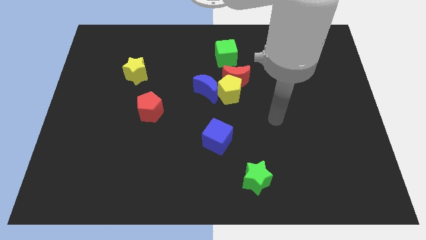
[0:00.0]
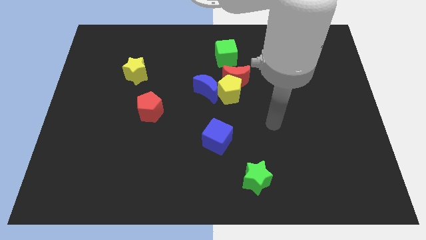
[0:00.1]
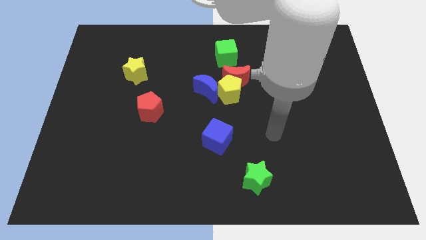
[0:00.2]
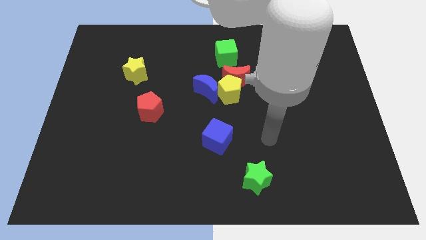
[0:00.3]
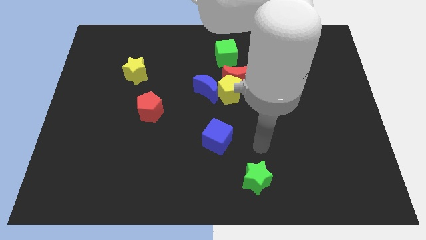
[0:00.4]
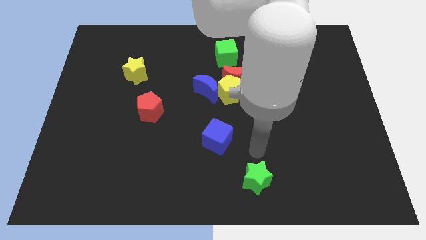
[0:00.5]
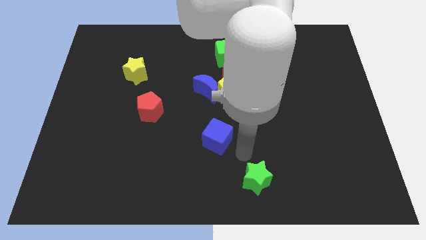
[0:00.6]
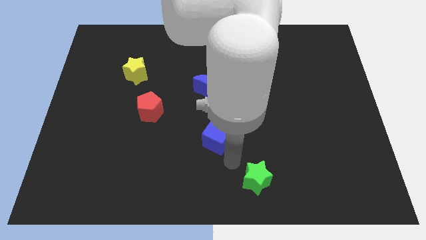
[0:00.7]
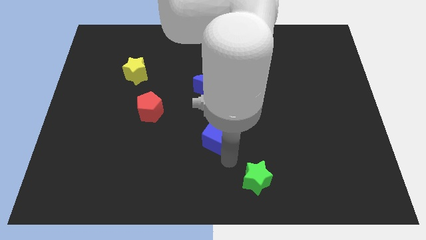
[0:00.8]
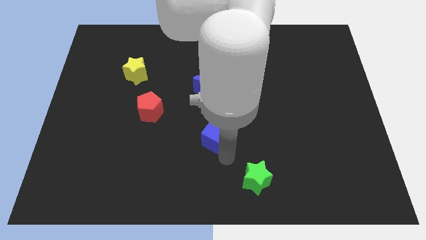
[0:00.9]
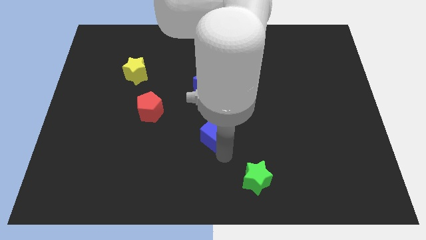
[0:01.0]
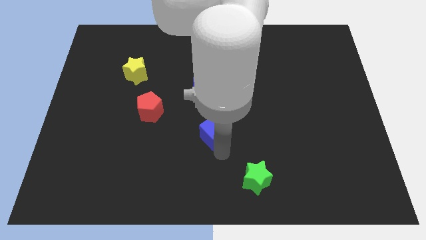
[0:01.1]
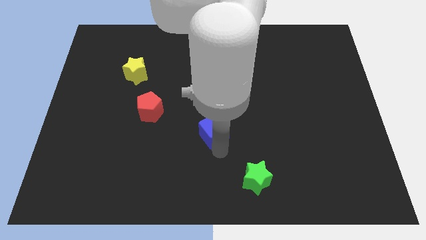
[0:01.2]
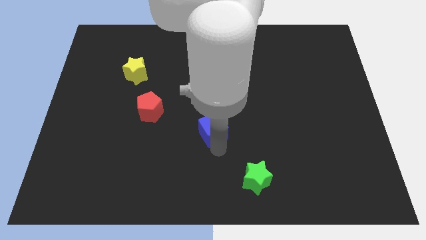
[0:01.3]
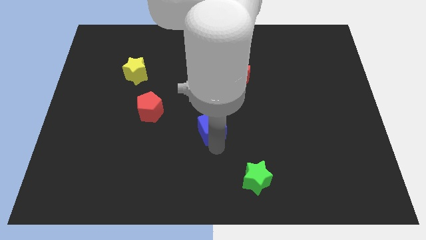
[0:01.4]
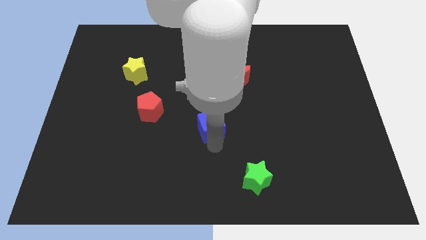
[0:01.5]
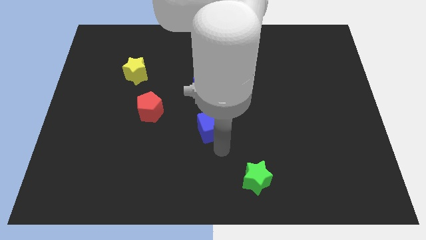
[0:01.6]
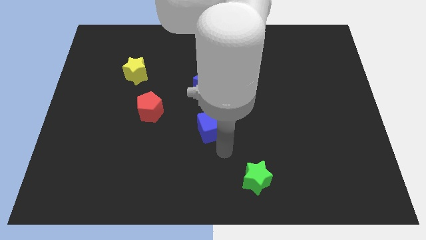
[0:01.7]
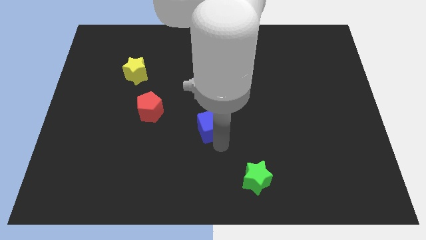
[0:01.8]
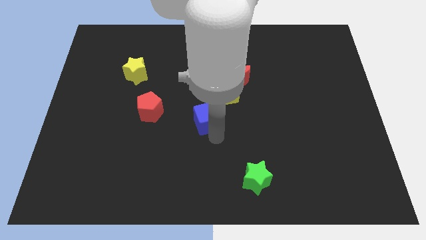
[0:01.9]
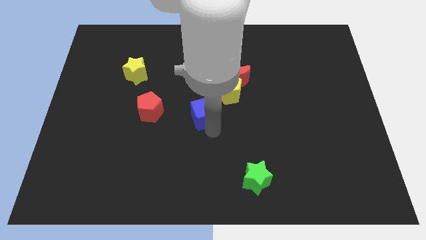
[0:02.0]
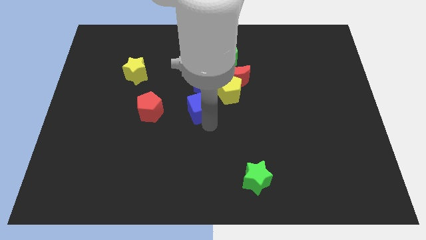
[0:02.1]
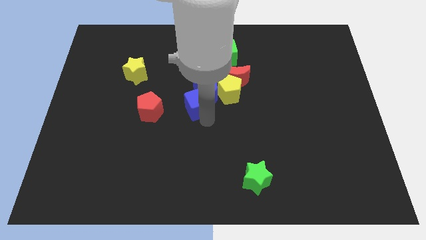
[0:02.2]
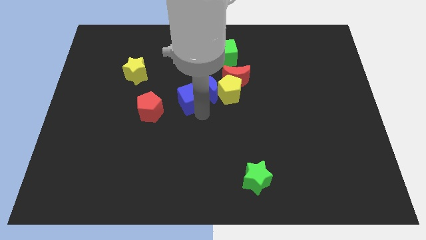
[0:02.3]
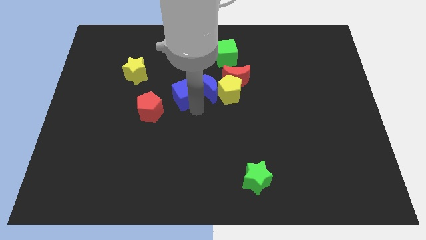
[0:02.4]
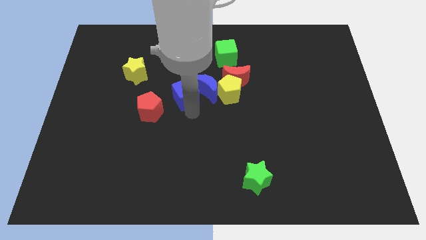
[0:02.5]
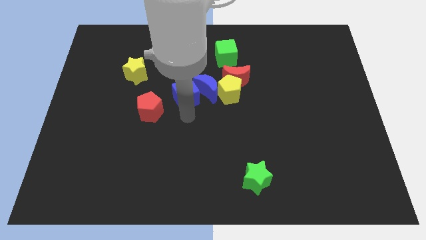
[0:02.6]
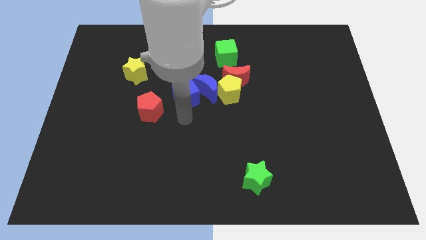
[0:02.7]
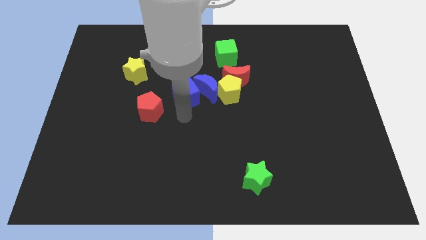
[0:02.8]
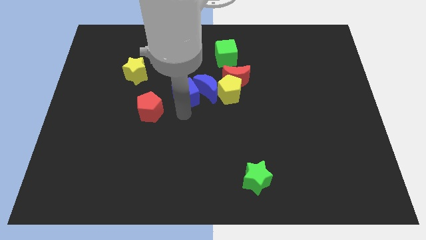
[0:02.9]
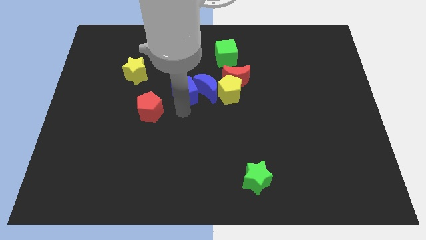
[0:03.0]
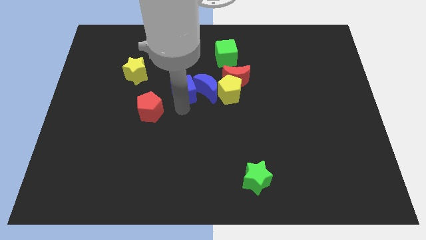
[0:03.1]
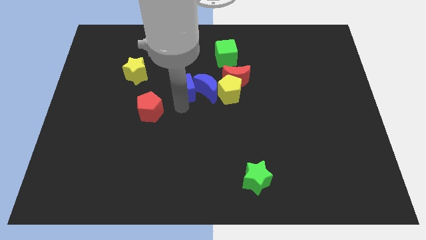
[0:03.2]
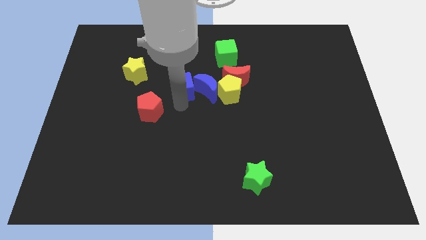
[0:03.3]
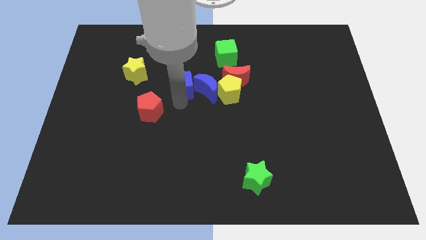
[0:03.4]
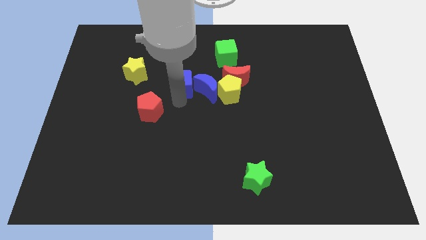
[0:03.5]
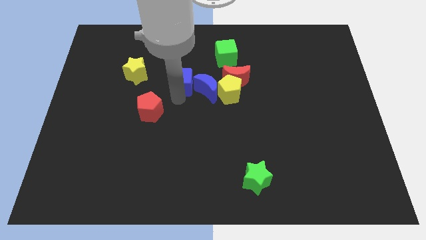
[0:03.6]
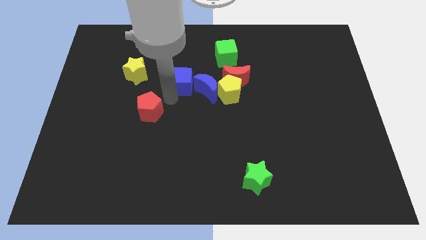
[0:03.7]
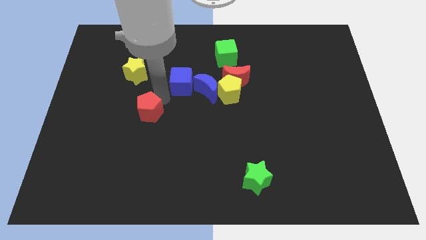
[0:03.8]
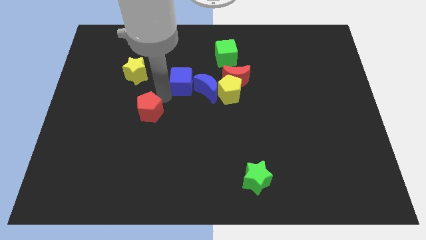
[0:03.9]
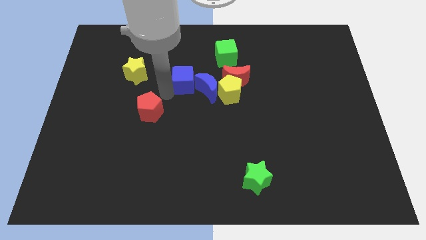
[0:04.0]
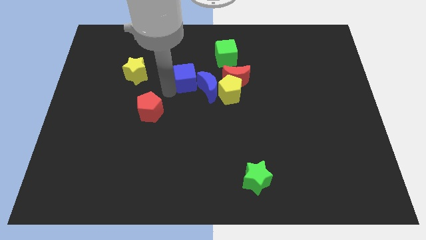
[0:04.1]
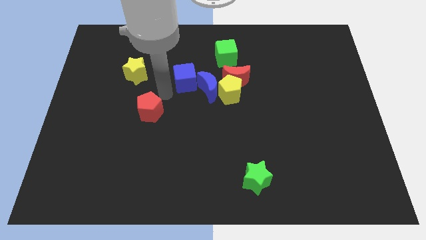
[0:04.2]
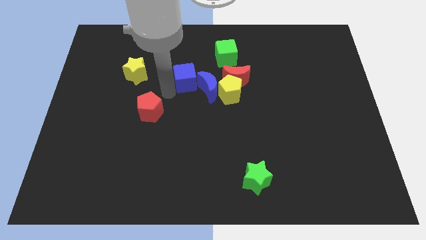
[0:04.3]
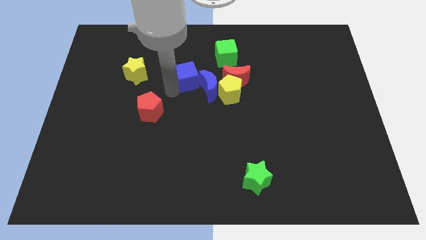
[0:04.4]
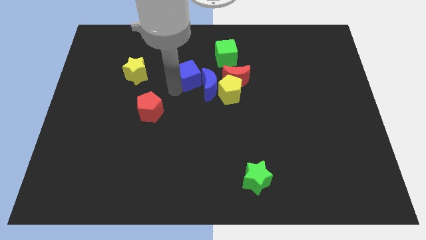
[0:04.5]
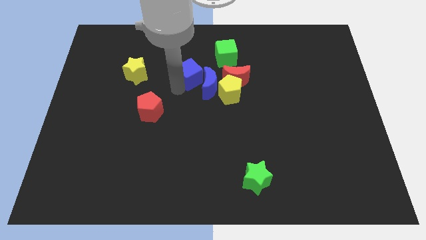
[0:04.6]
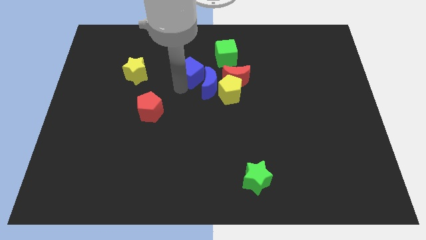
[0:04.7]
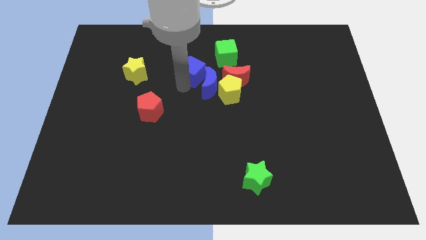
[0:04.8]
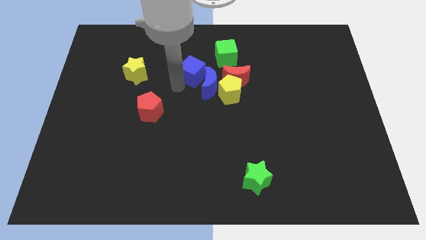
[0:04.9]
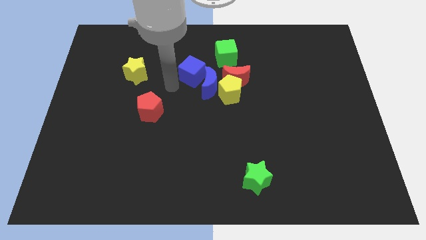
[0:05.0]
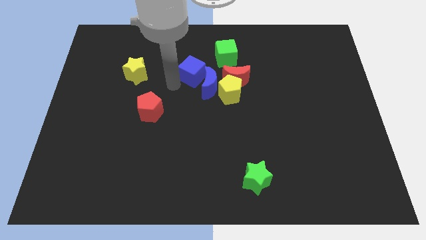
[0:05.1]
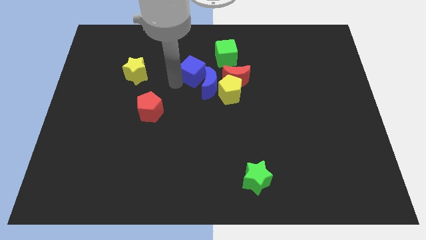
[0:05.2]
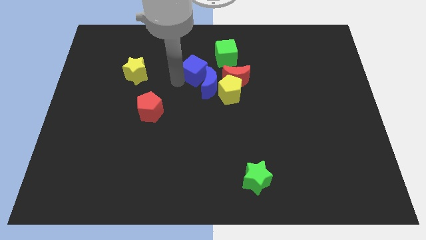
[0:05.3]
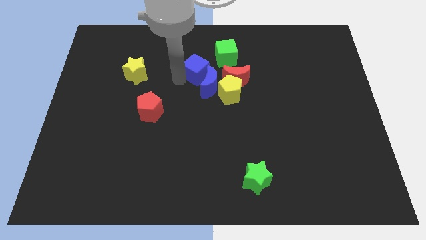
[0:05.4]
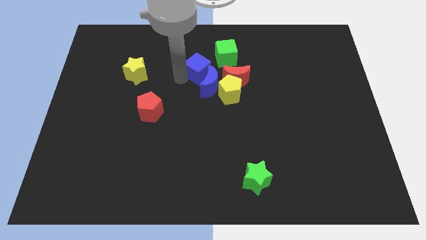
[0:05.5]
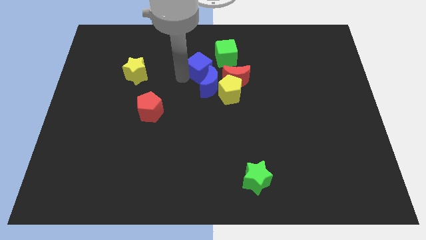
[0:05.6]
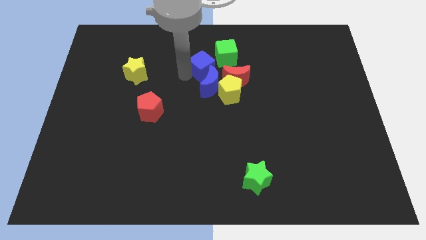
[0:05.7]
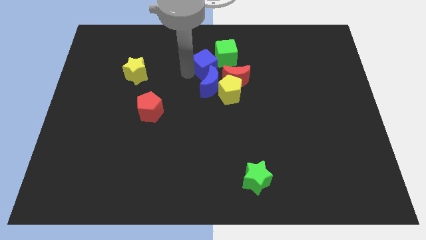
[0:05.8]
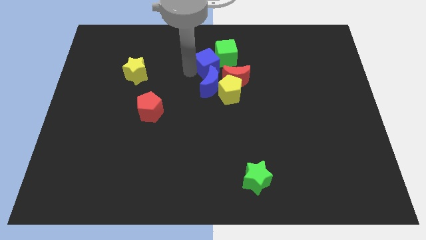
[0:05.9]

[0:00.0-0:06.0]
slide the blue cube close to the green cube

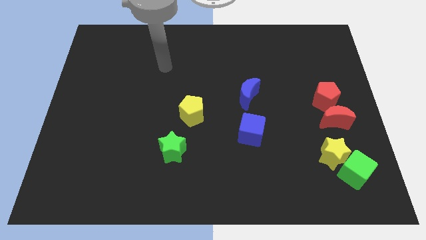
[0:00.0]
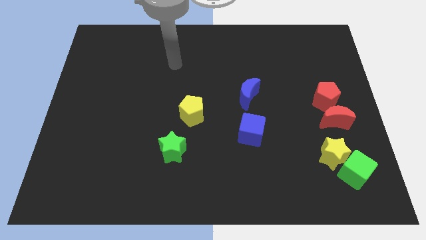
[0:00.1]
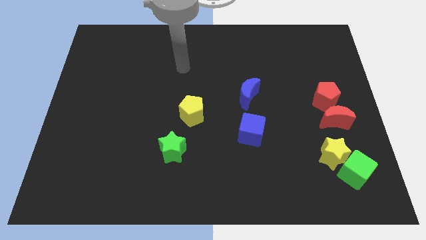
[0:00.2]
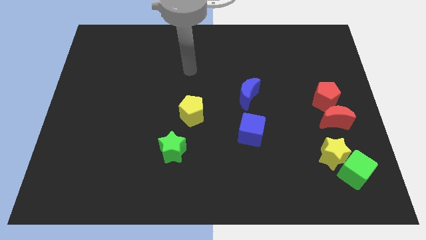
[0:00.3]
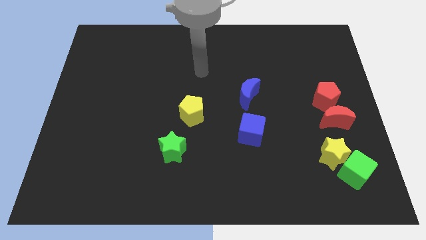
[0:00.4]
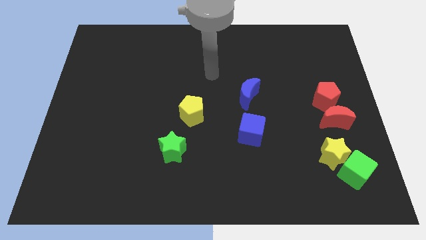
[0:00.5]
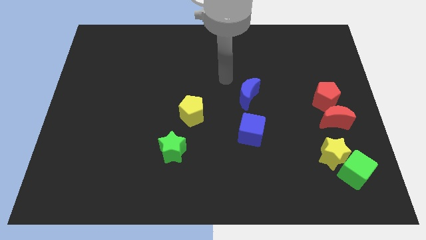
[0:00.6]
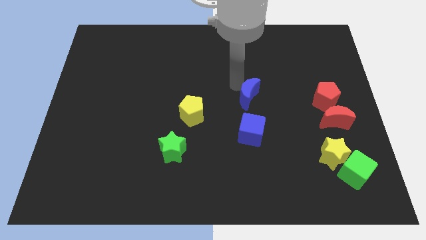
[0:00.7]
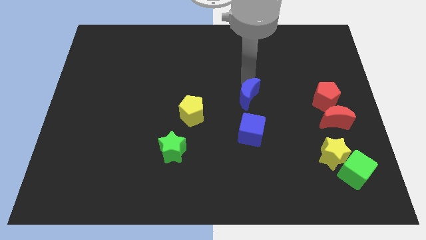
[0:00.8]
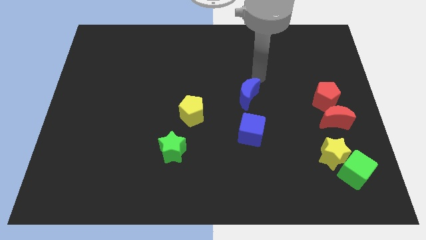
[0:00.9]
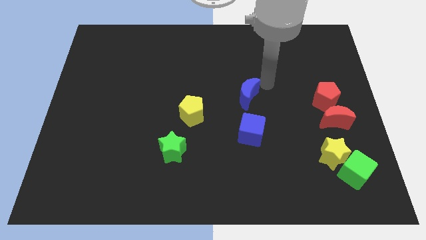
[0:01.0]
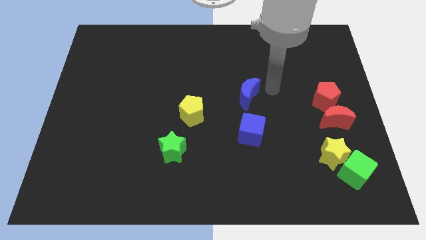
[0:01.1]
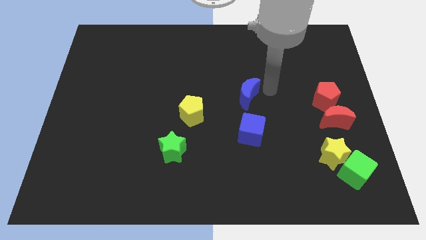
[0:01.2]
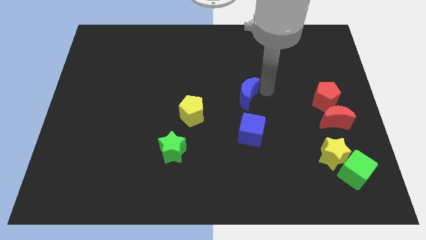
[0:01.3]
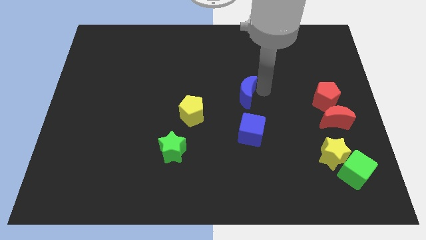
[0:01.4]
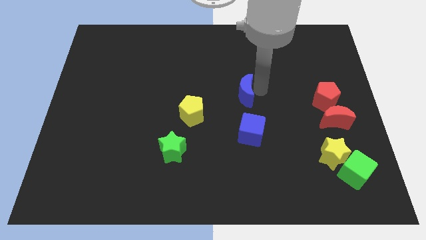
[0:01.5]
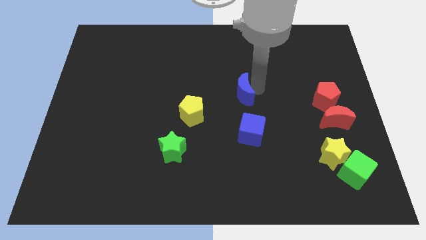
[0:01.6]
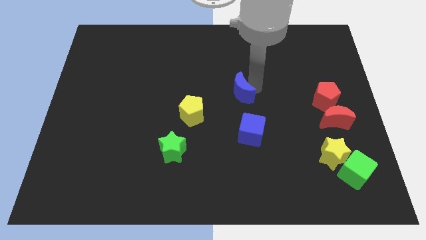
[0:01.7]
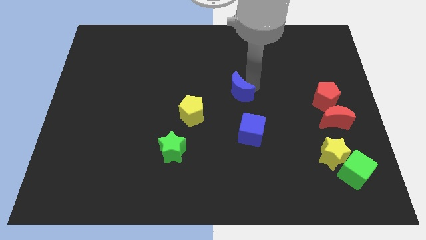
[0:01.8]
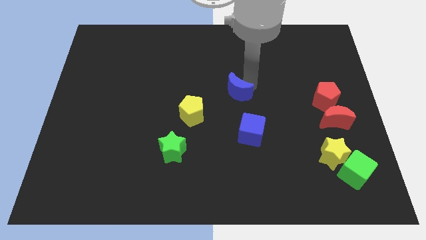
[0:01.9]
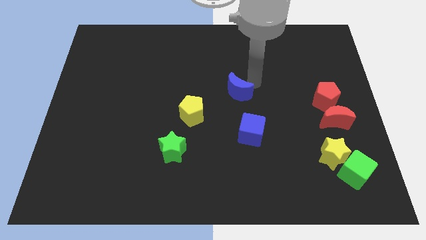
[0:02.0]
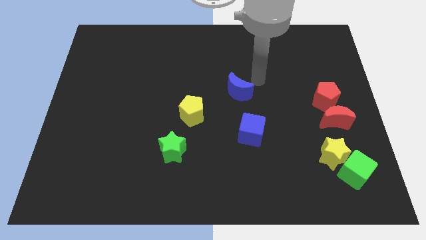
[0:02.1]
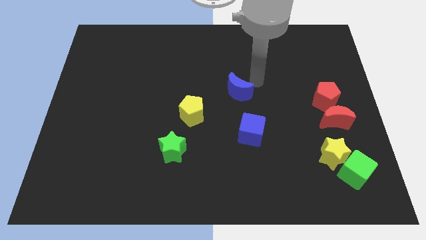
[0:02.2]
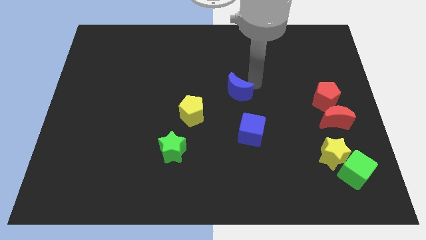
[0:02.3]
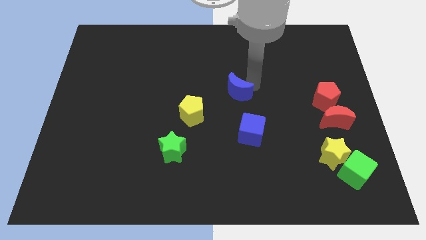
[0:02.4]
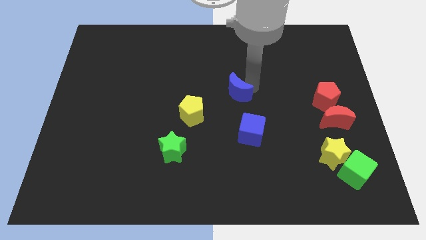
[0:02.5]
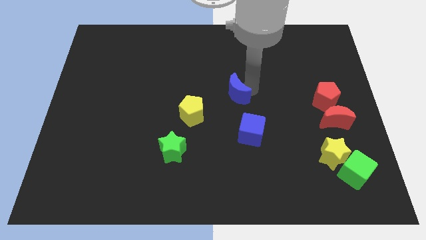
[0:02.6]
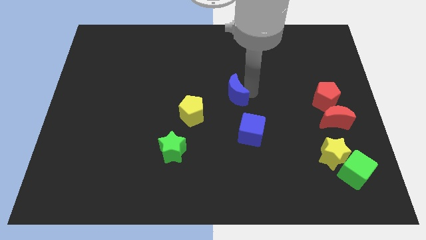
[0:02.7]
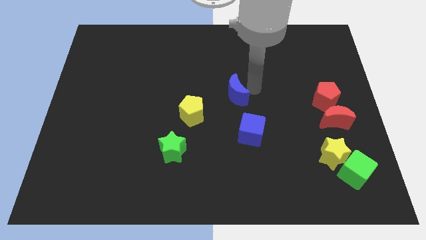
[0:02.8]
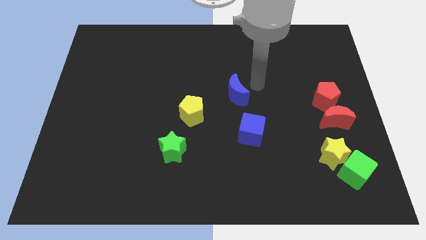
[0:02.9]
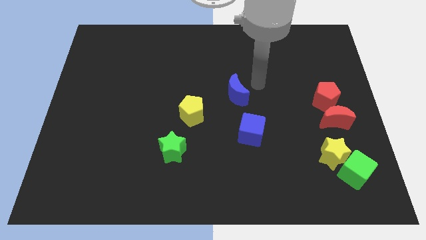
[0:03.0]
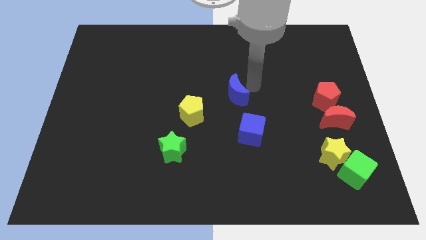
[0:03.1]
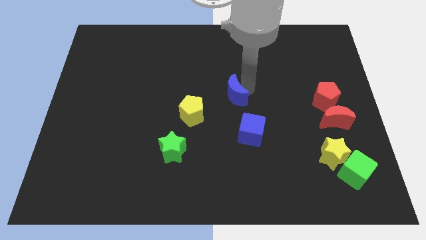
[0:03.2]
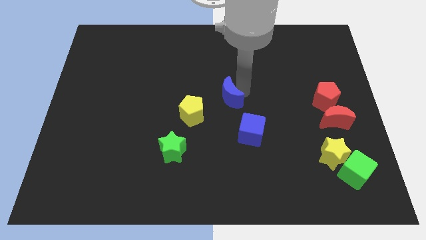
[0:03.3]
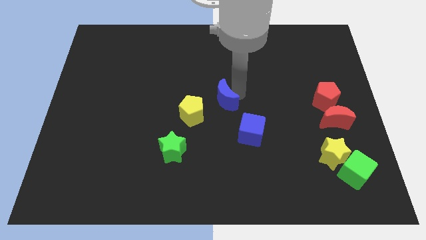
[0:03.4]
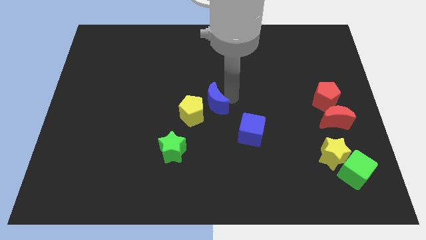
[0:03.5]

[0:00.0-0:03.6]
slide the blue moon towards the yellow pentagon
